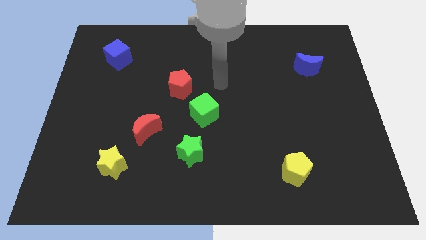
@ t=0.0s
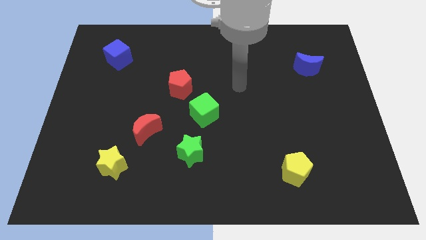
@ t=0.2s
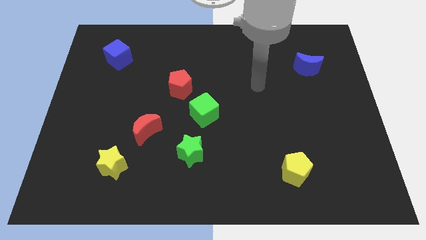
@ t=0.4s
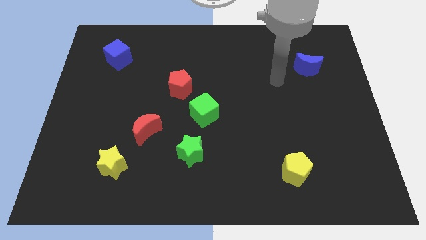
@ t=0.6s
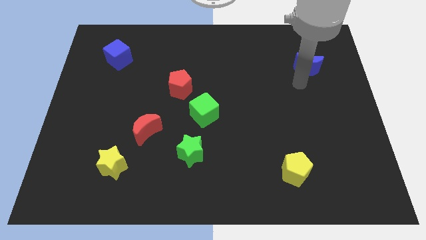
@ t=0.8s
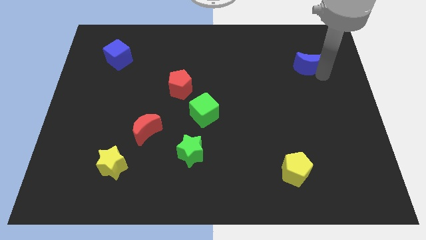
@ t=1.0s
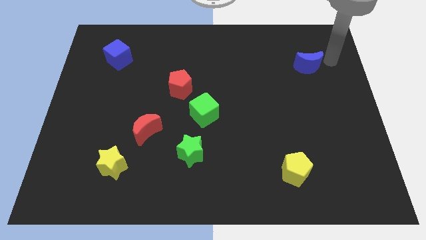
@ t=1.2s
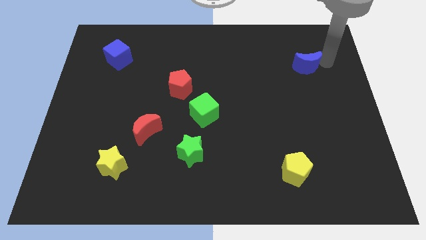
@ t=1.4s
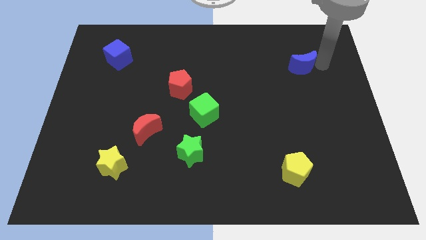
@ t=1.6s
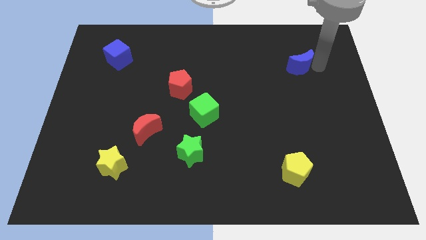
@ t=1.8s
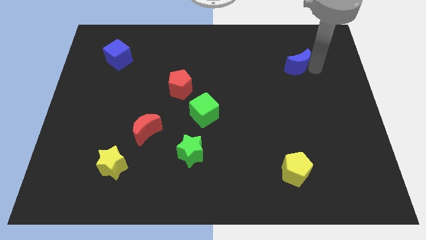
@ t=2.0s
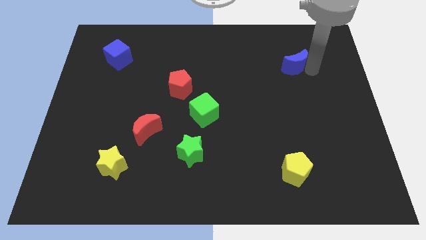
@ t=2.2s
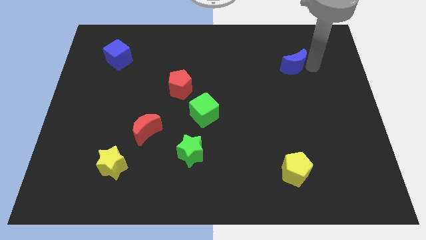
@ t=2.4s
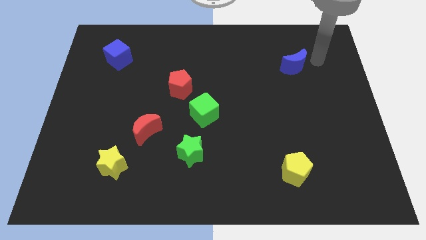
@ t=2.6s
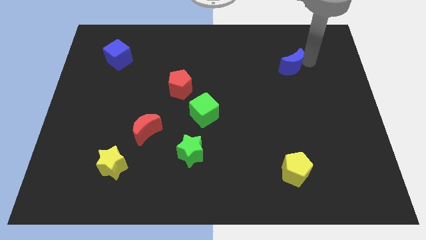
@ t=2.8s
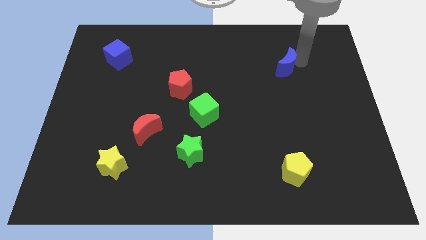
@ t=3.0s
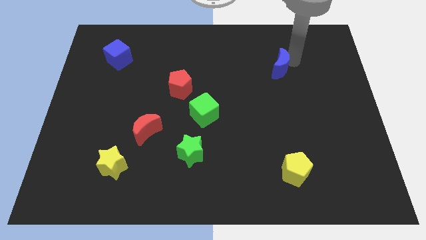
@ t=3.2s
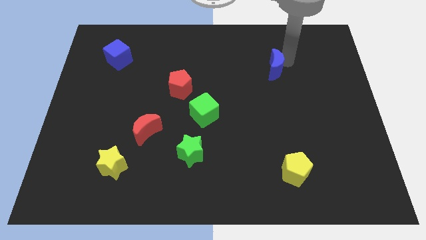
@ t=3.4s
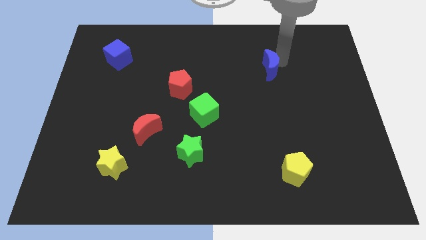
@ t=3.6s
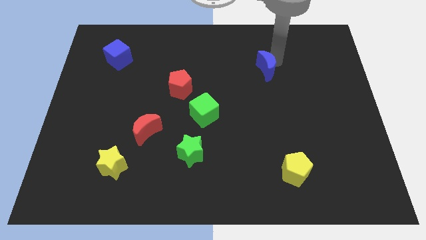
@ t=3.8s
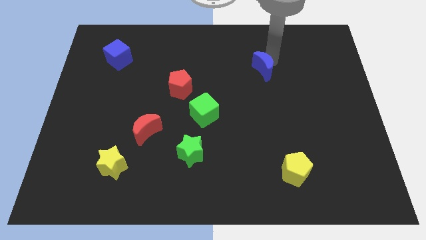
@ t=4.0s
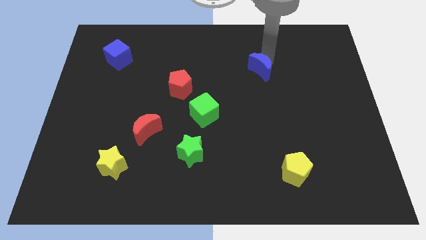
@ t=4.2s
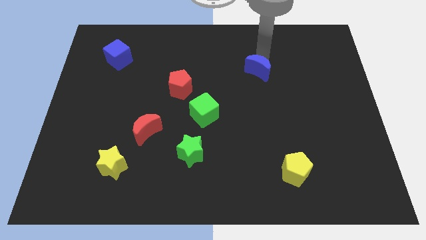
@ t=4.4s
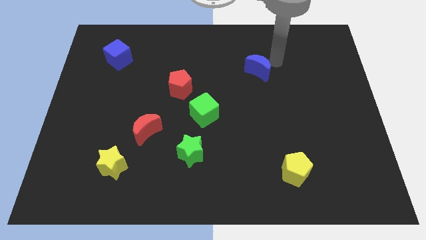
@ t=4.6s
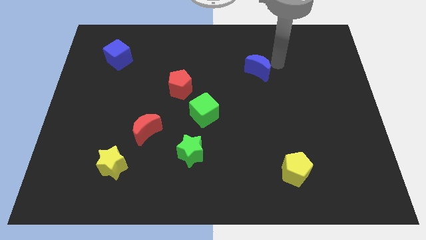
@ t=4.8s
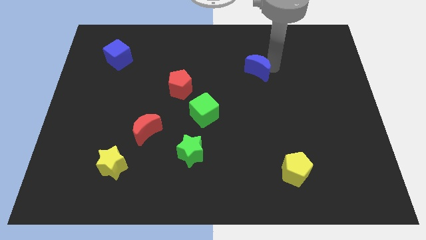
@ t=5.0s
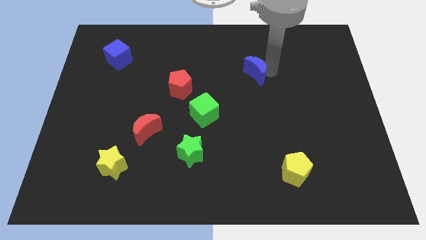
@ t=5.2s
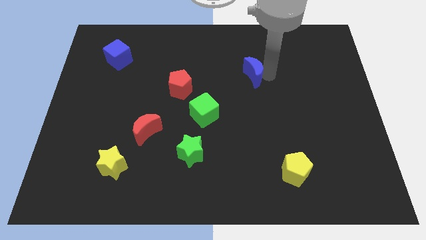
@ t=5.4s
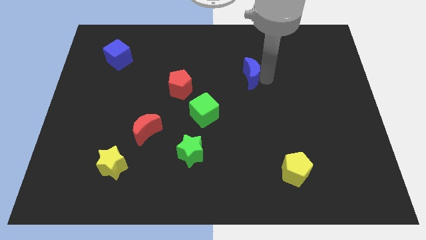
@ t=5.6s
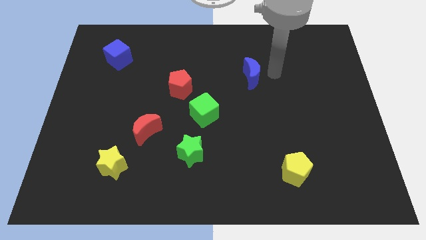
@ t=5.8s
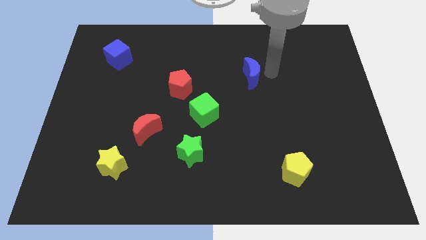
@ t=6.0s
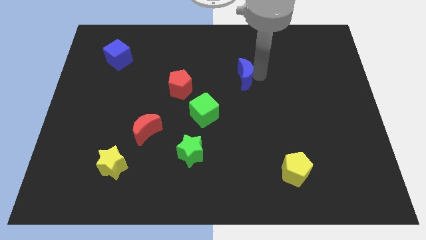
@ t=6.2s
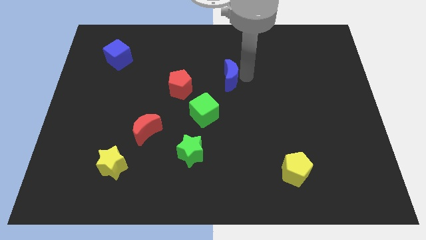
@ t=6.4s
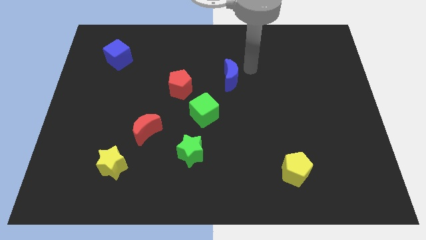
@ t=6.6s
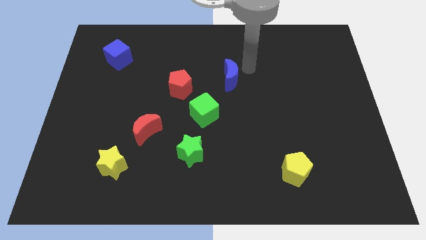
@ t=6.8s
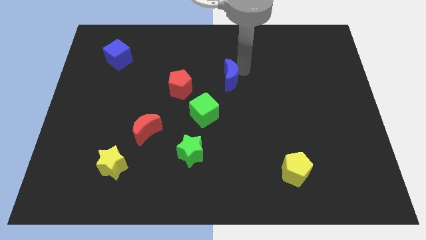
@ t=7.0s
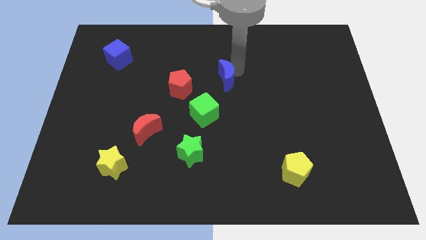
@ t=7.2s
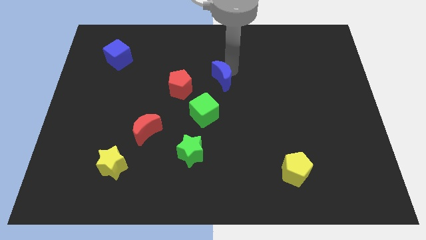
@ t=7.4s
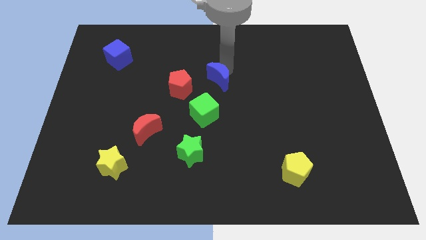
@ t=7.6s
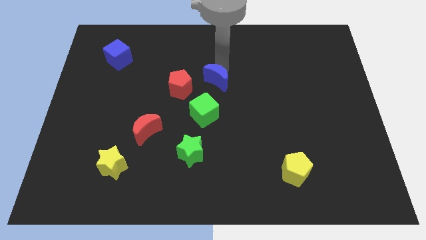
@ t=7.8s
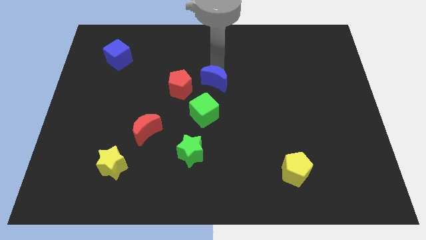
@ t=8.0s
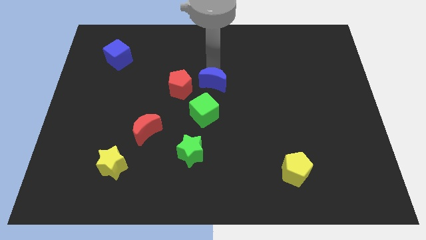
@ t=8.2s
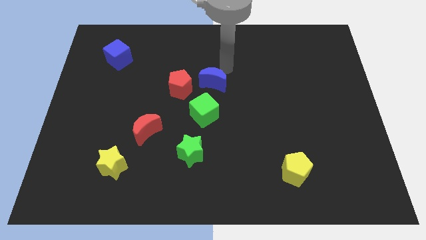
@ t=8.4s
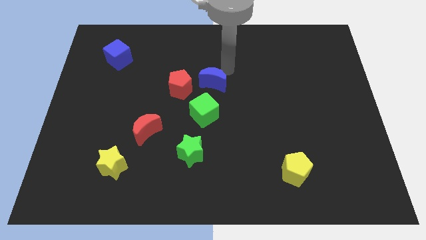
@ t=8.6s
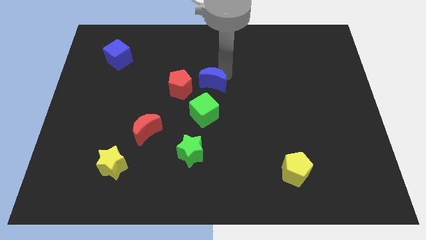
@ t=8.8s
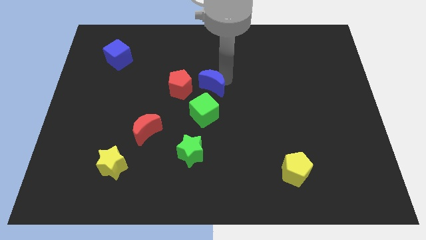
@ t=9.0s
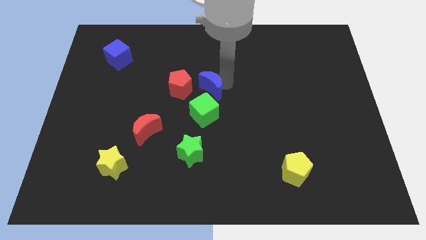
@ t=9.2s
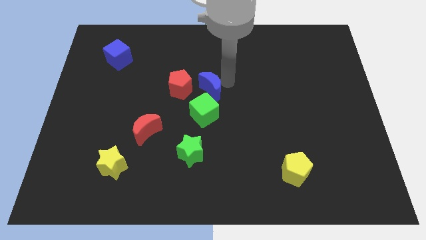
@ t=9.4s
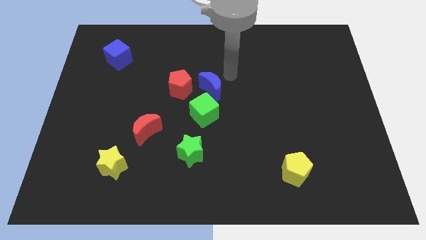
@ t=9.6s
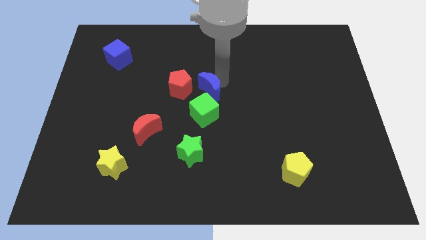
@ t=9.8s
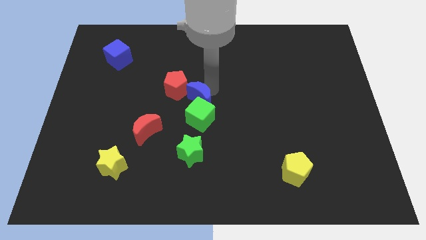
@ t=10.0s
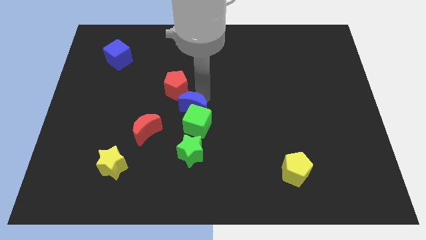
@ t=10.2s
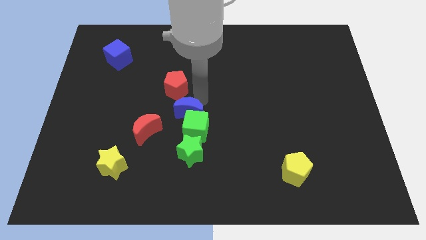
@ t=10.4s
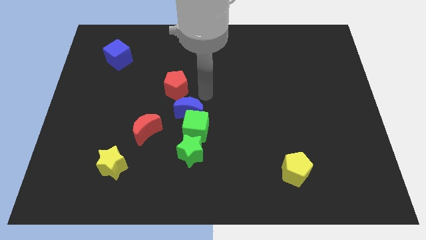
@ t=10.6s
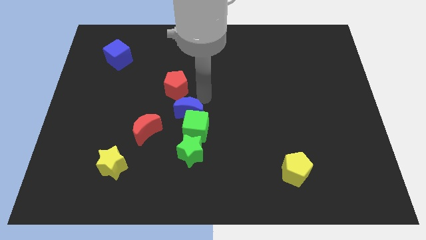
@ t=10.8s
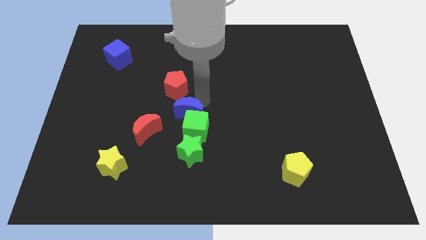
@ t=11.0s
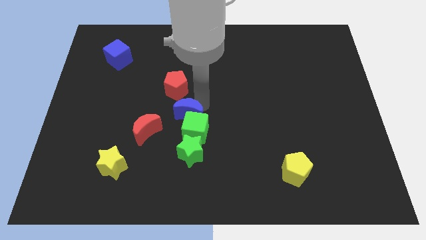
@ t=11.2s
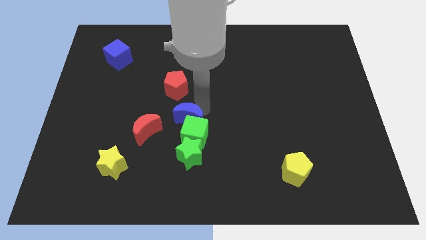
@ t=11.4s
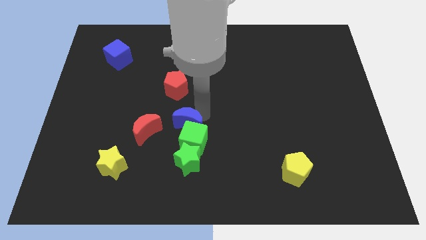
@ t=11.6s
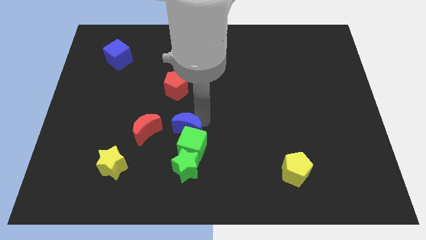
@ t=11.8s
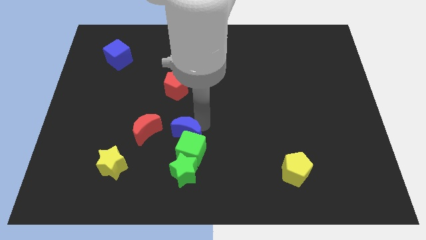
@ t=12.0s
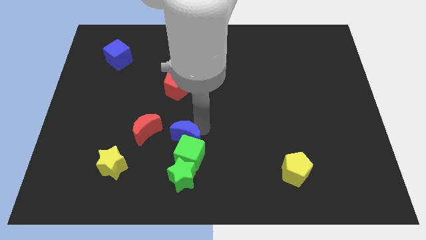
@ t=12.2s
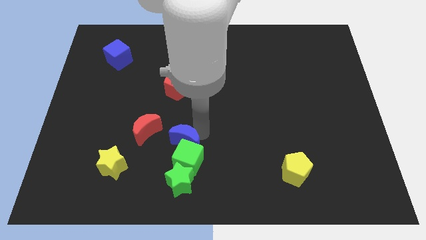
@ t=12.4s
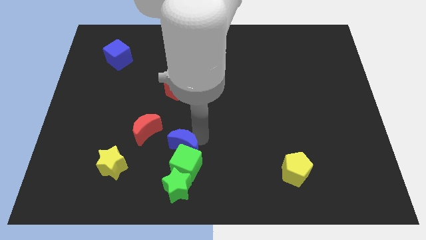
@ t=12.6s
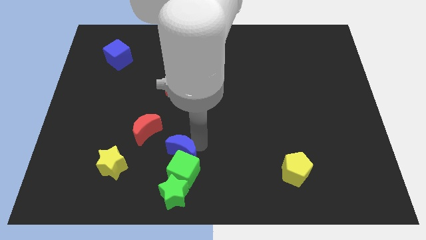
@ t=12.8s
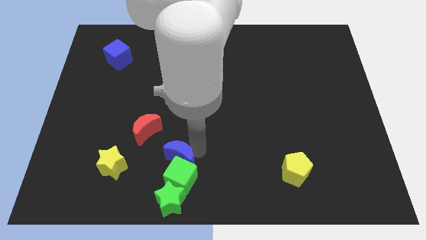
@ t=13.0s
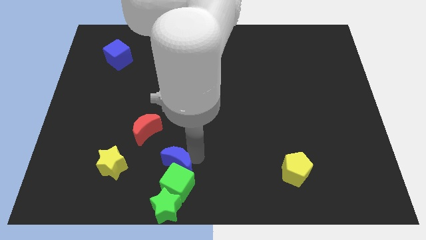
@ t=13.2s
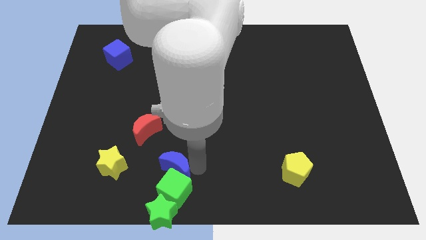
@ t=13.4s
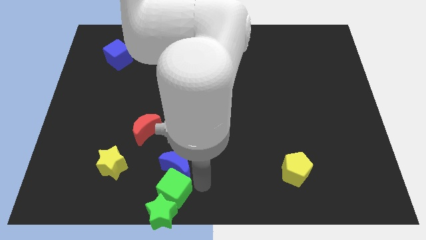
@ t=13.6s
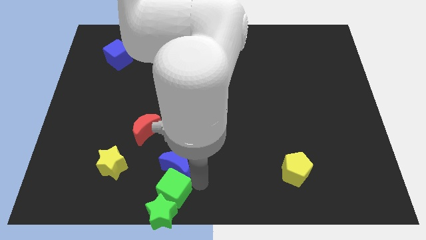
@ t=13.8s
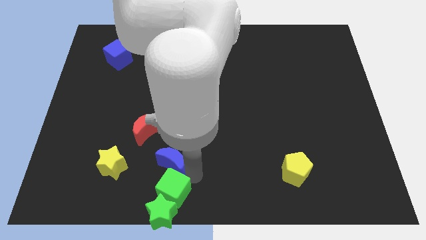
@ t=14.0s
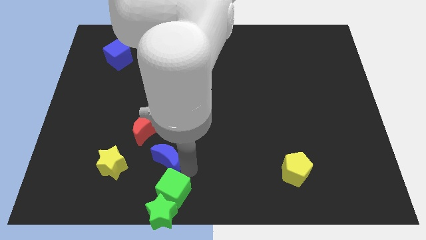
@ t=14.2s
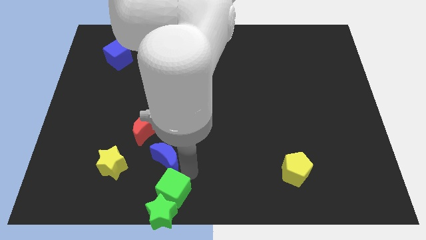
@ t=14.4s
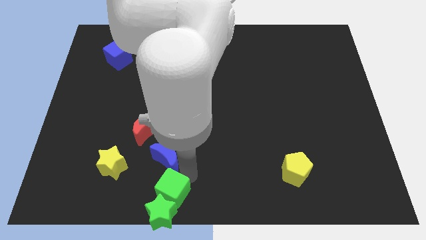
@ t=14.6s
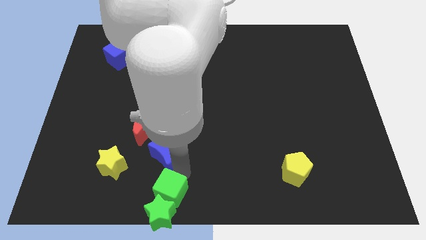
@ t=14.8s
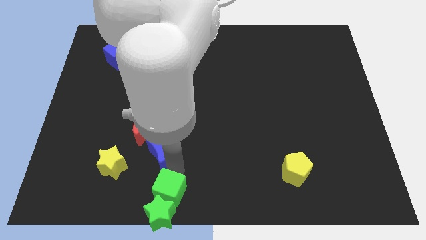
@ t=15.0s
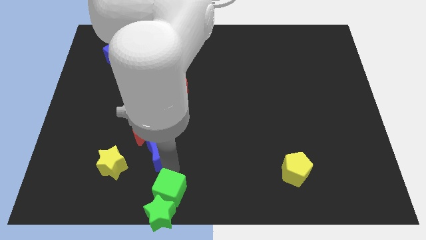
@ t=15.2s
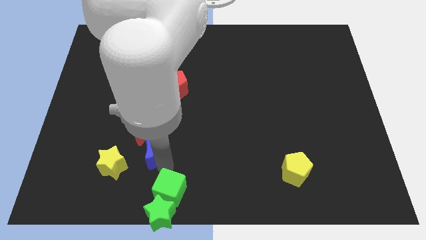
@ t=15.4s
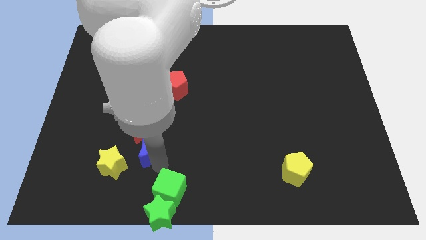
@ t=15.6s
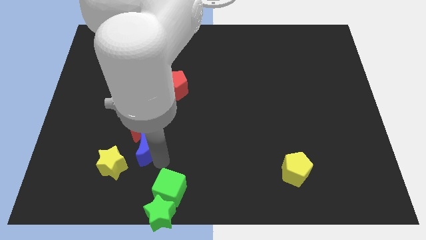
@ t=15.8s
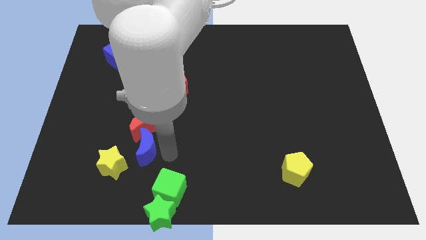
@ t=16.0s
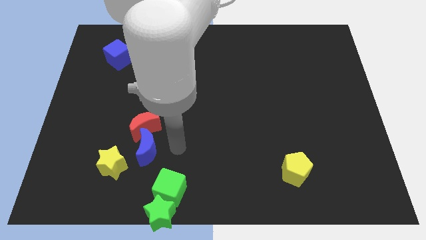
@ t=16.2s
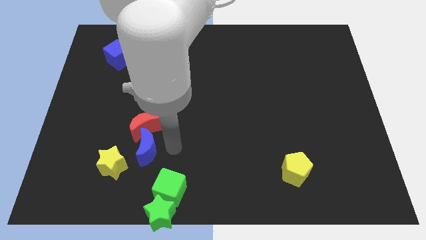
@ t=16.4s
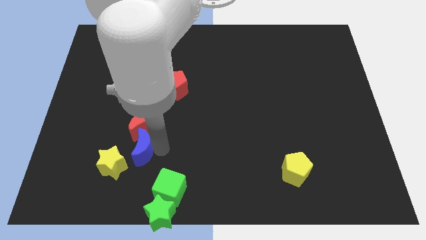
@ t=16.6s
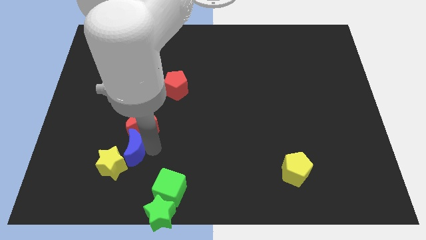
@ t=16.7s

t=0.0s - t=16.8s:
push the blue moon close to the yellow star
